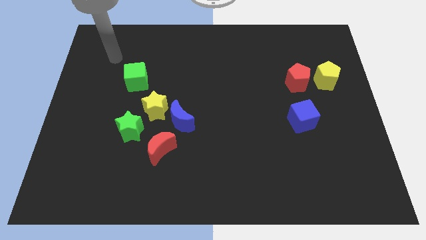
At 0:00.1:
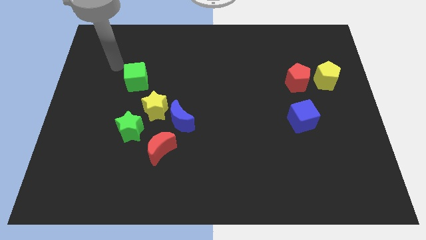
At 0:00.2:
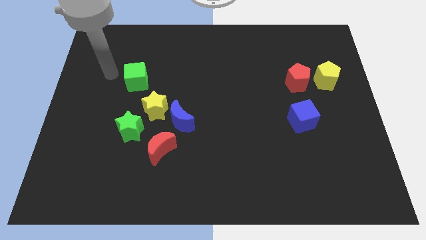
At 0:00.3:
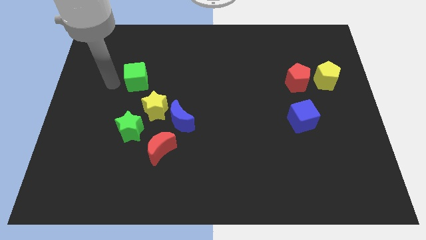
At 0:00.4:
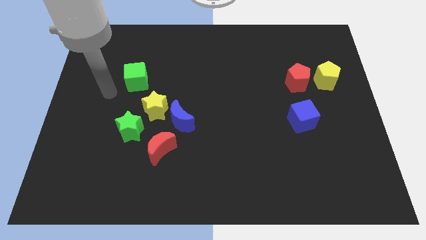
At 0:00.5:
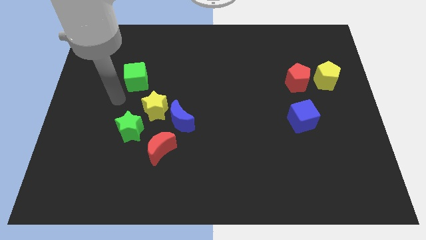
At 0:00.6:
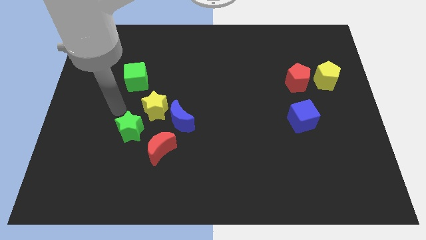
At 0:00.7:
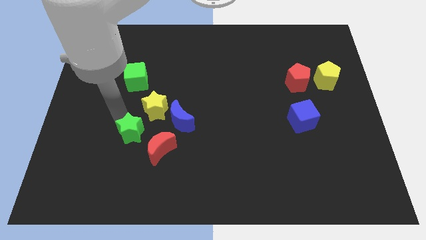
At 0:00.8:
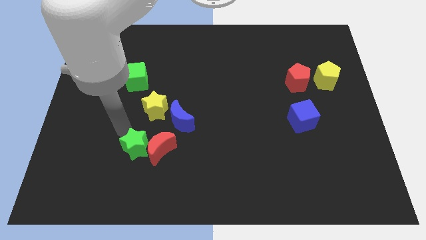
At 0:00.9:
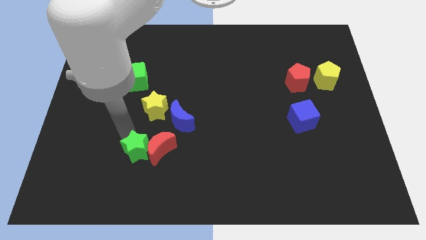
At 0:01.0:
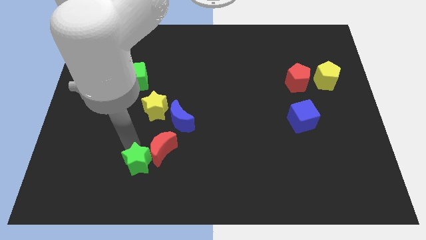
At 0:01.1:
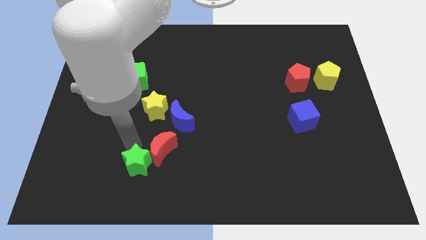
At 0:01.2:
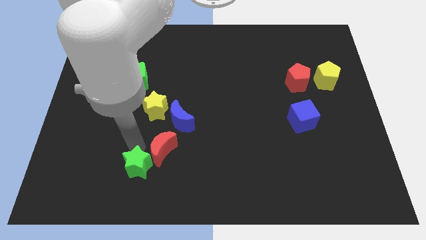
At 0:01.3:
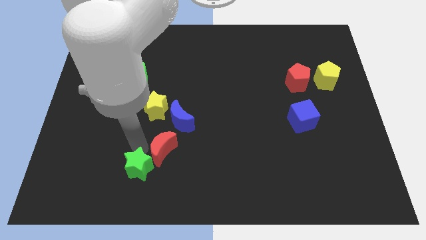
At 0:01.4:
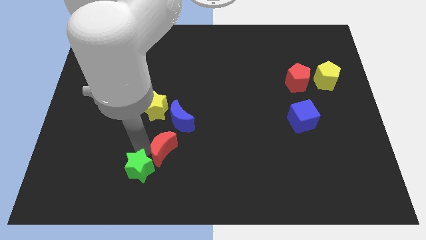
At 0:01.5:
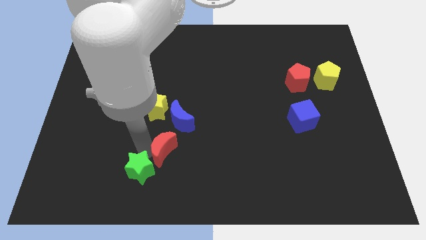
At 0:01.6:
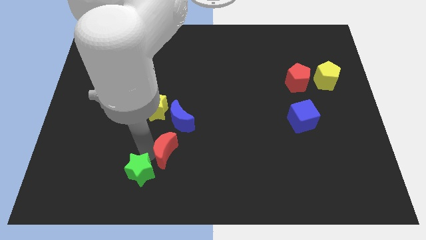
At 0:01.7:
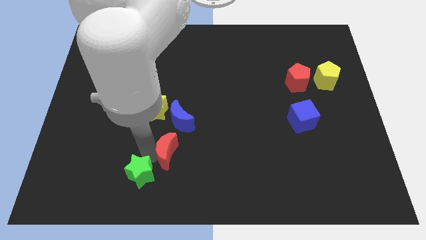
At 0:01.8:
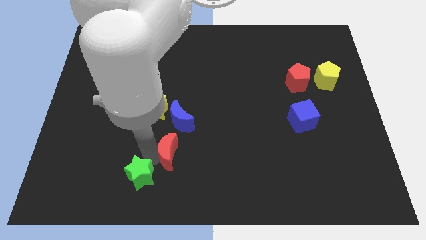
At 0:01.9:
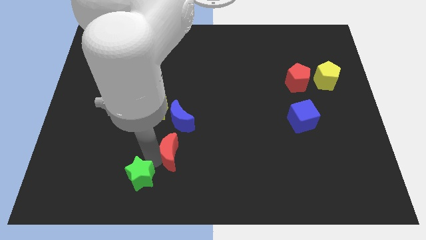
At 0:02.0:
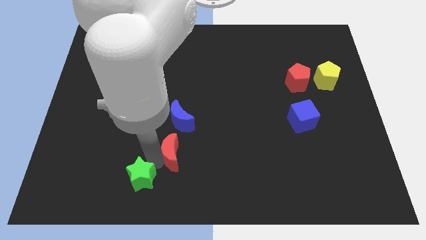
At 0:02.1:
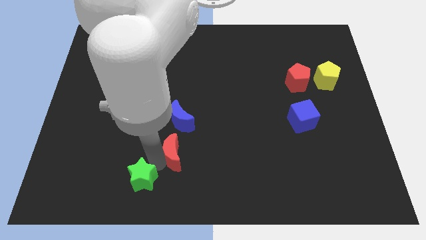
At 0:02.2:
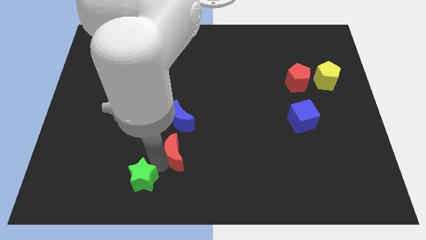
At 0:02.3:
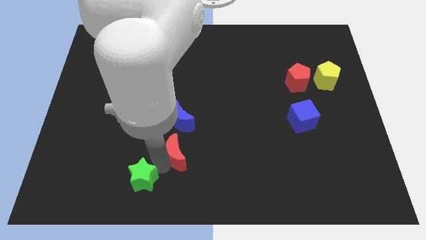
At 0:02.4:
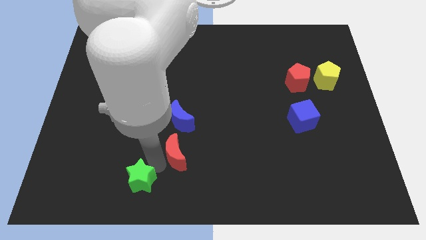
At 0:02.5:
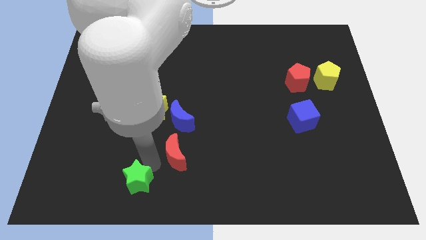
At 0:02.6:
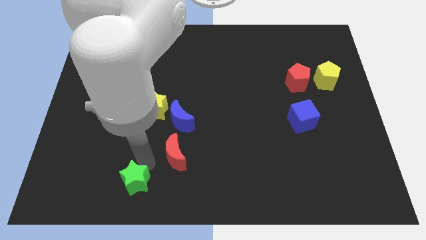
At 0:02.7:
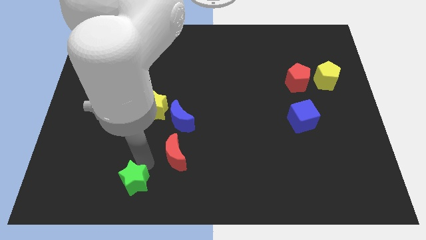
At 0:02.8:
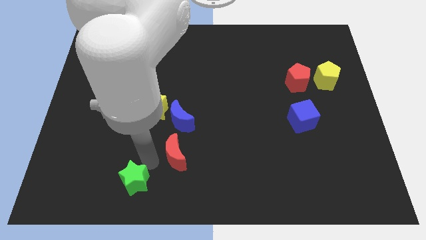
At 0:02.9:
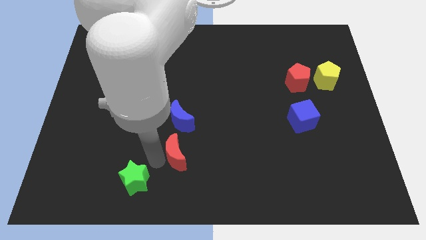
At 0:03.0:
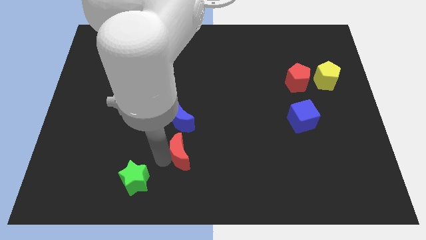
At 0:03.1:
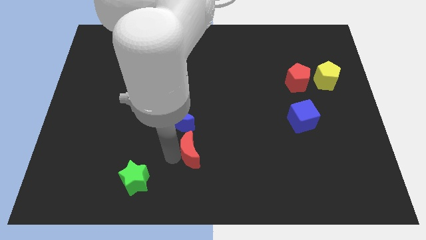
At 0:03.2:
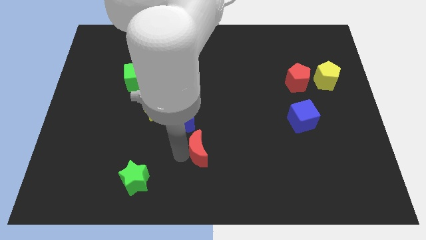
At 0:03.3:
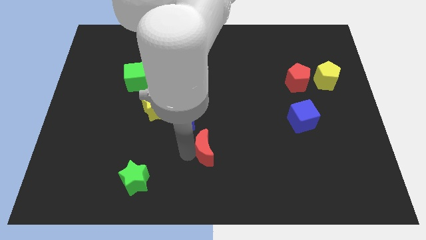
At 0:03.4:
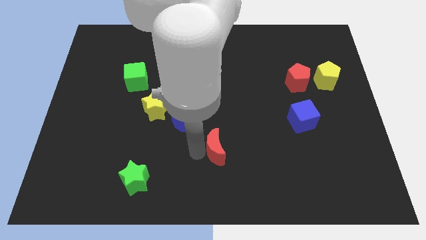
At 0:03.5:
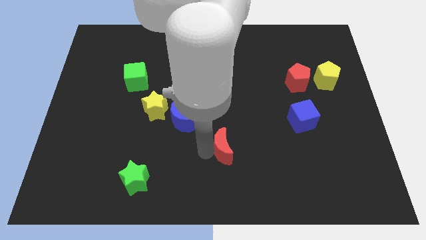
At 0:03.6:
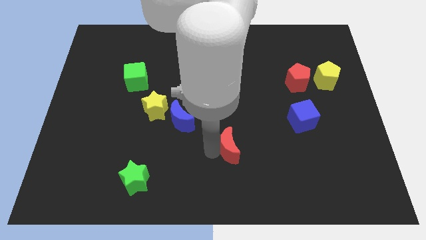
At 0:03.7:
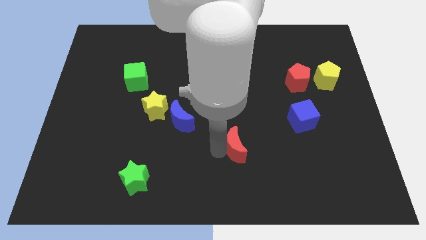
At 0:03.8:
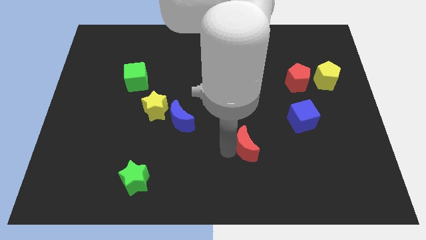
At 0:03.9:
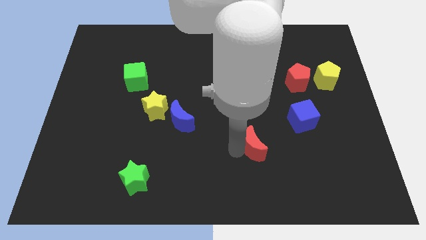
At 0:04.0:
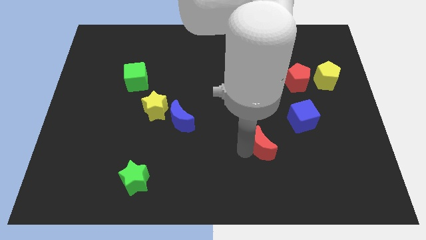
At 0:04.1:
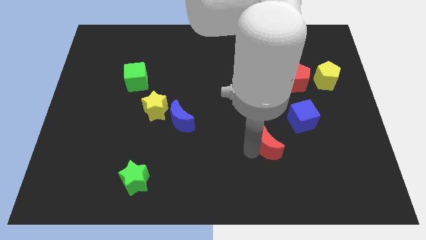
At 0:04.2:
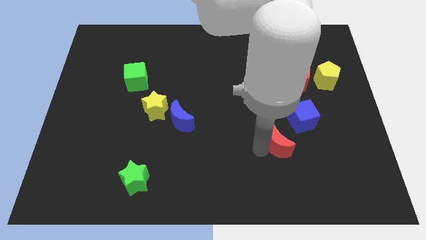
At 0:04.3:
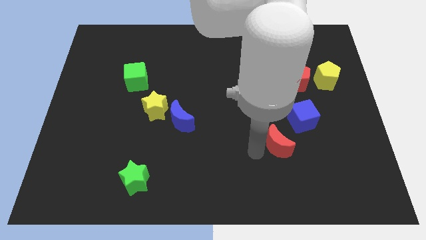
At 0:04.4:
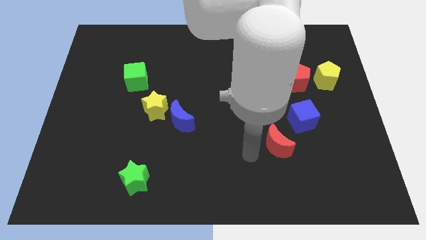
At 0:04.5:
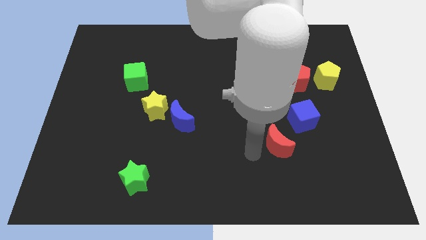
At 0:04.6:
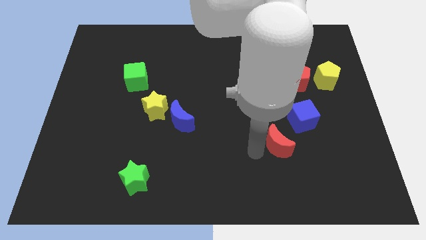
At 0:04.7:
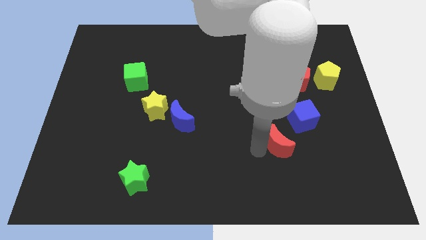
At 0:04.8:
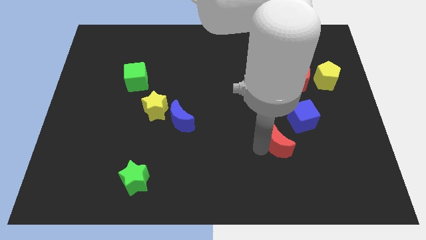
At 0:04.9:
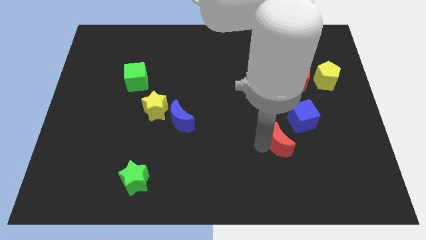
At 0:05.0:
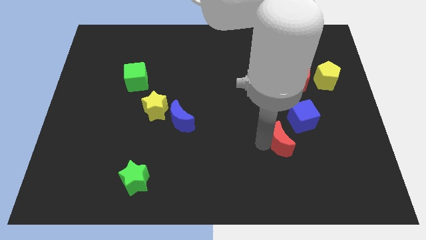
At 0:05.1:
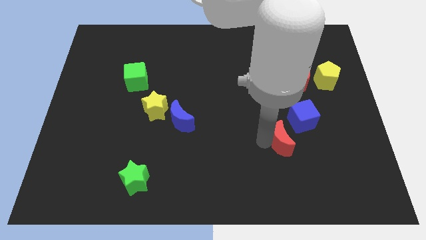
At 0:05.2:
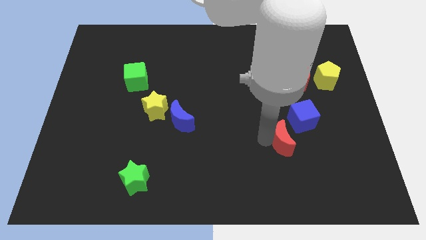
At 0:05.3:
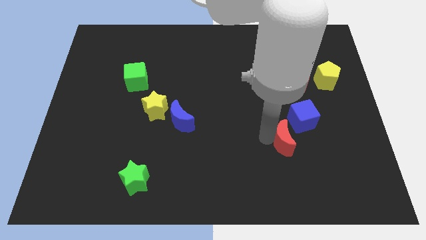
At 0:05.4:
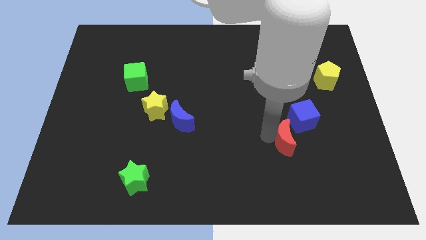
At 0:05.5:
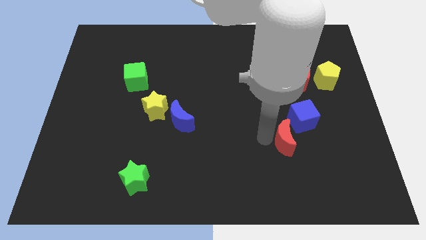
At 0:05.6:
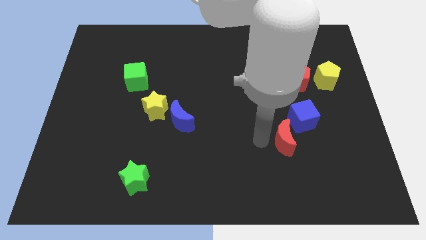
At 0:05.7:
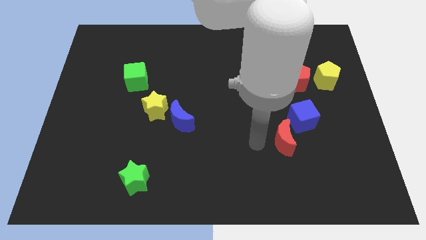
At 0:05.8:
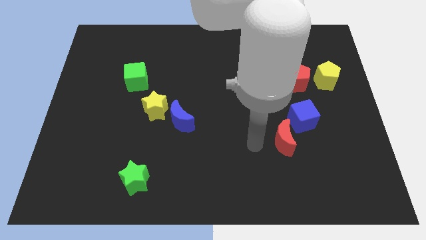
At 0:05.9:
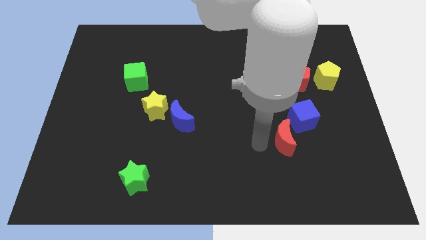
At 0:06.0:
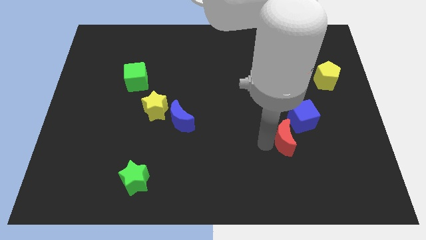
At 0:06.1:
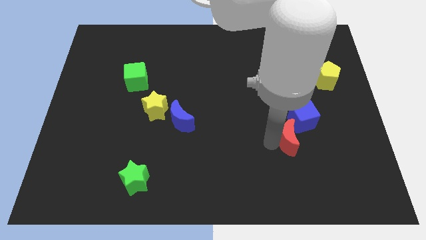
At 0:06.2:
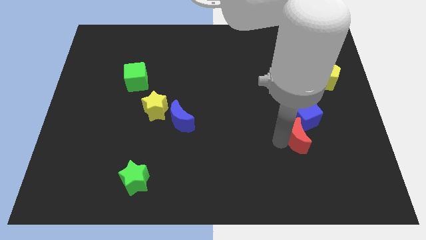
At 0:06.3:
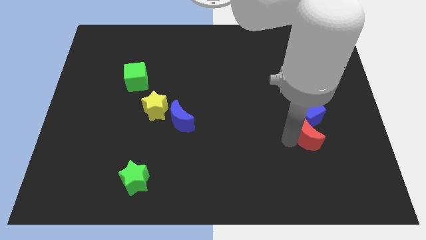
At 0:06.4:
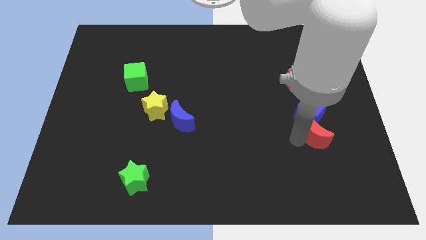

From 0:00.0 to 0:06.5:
slide the red moon diagonally down and to the right of the blue cube

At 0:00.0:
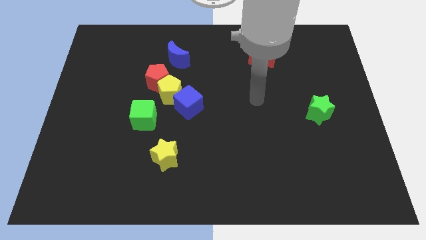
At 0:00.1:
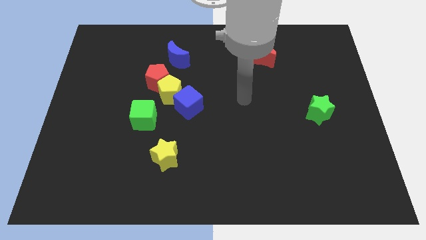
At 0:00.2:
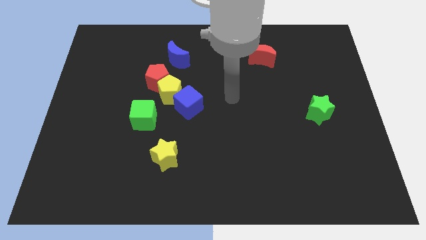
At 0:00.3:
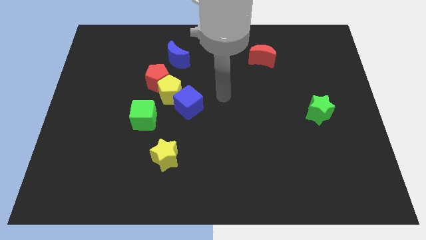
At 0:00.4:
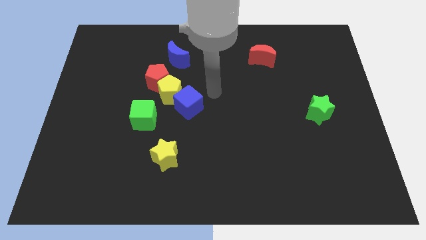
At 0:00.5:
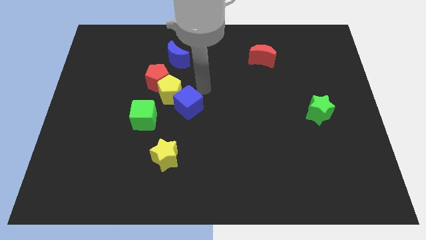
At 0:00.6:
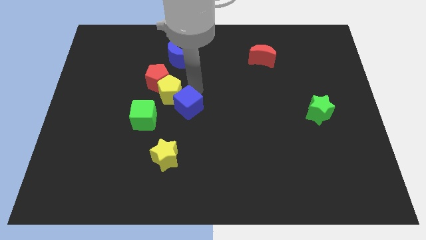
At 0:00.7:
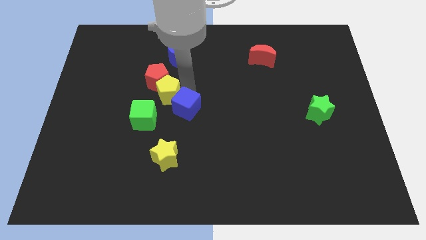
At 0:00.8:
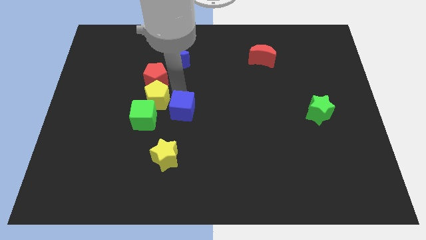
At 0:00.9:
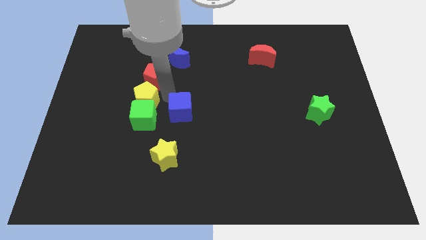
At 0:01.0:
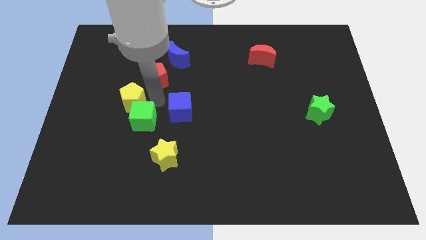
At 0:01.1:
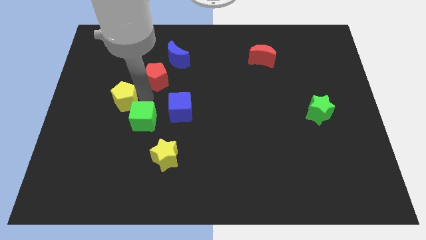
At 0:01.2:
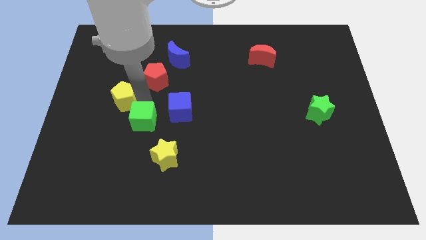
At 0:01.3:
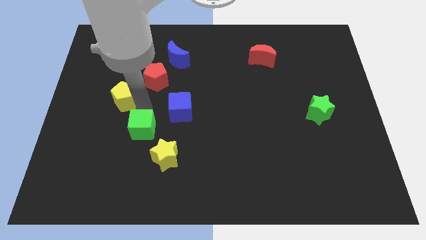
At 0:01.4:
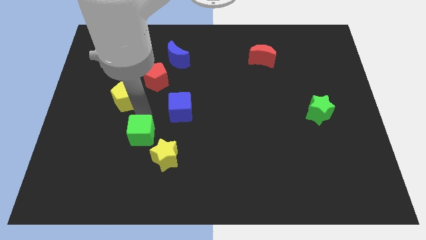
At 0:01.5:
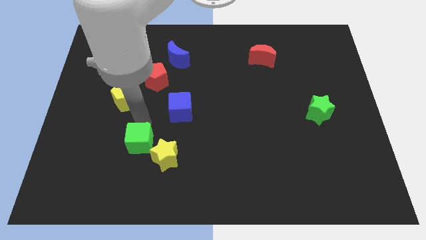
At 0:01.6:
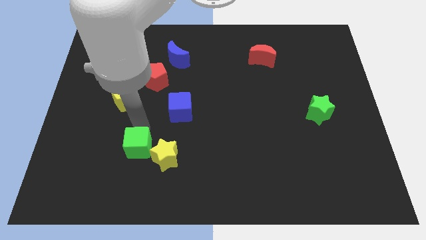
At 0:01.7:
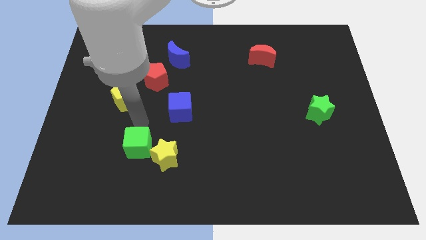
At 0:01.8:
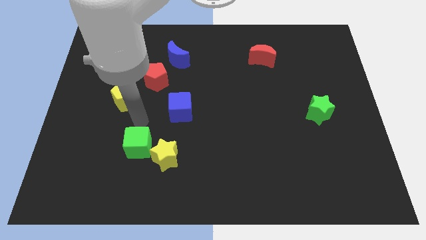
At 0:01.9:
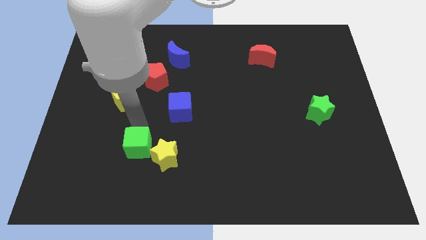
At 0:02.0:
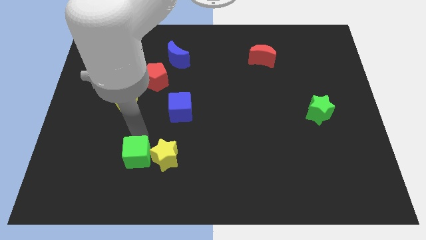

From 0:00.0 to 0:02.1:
push the green cube to the bottom left of the yellow star
